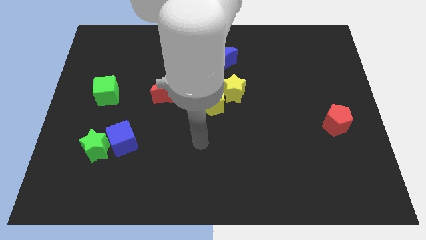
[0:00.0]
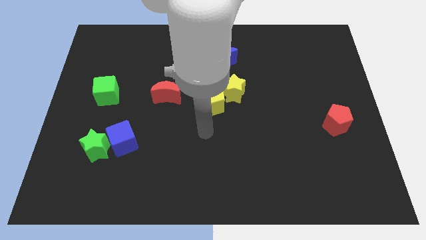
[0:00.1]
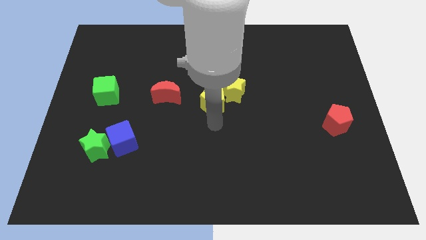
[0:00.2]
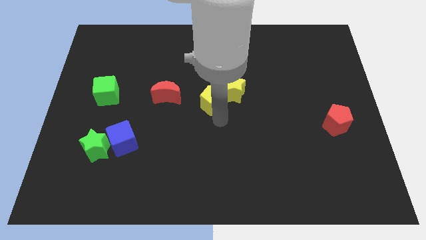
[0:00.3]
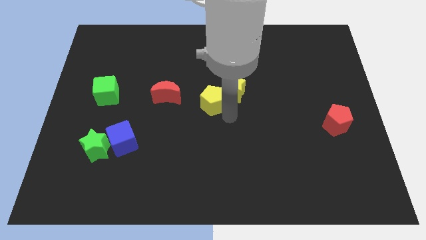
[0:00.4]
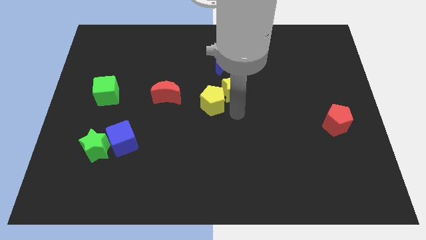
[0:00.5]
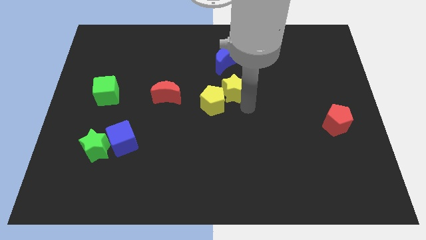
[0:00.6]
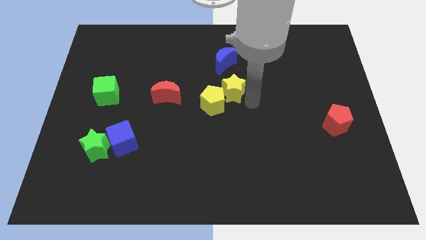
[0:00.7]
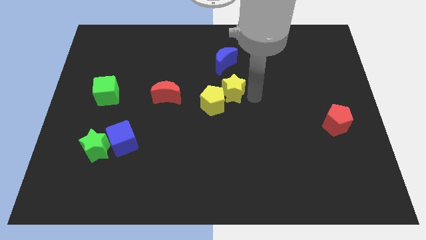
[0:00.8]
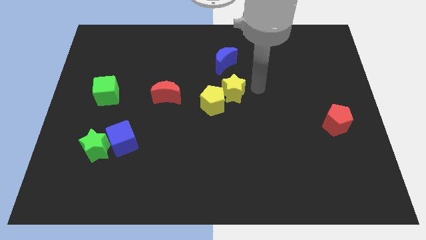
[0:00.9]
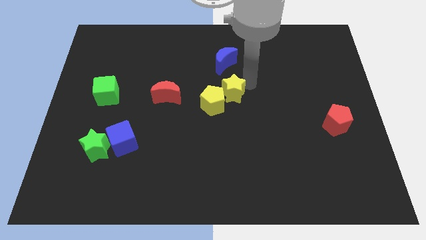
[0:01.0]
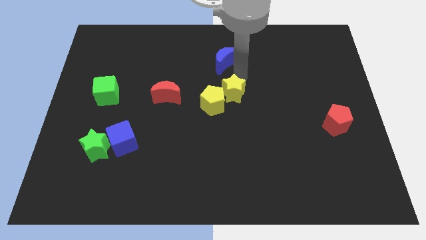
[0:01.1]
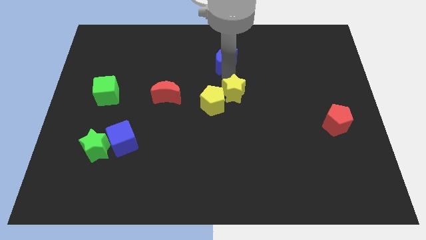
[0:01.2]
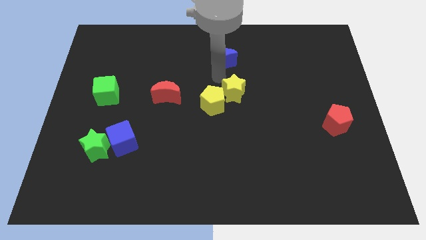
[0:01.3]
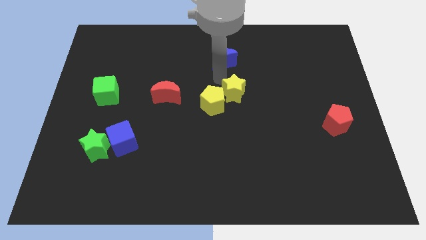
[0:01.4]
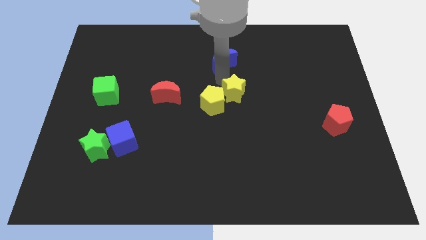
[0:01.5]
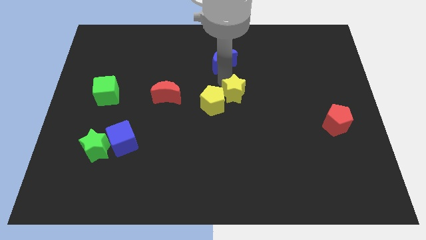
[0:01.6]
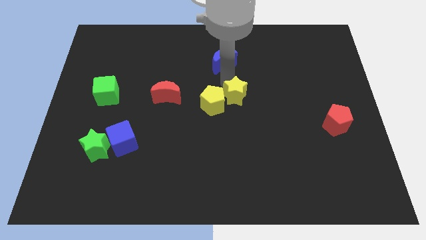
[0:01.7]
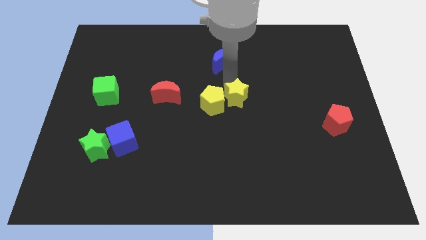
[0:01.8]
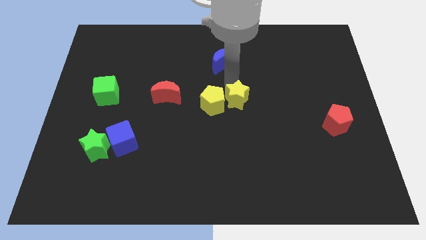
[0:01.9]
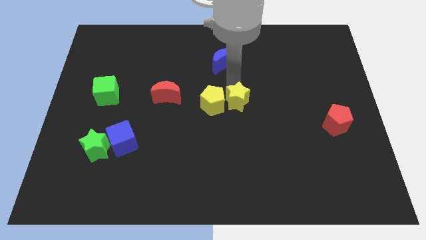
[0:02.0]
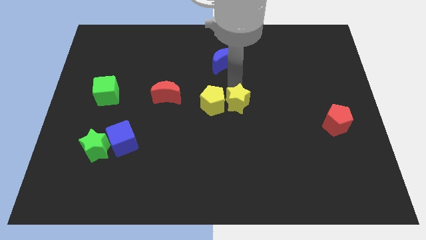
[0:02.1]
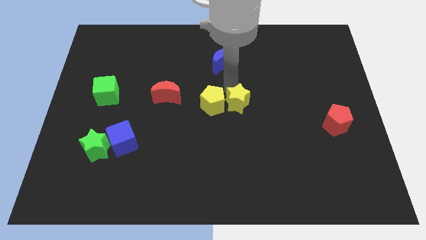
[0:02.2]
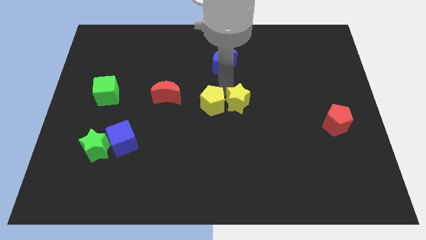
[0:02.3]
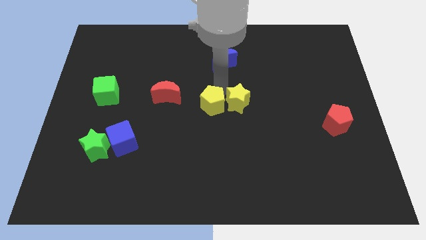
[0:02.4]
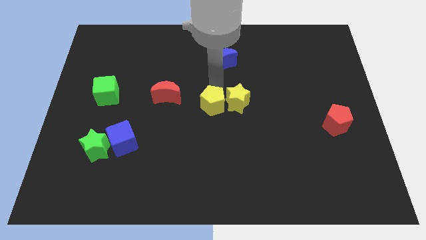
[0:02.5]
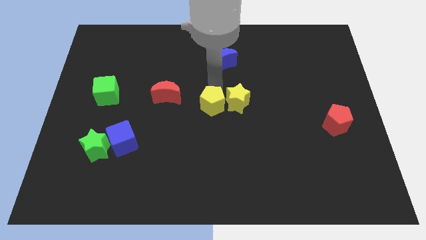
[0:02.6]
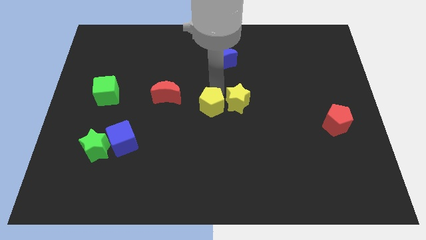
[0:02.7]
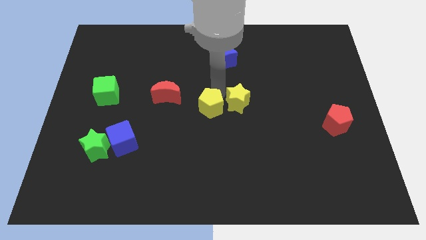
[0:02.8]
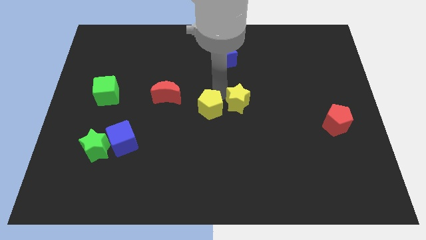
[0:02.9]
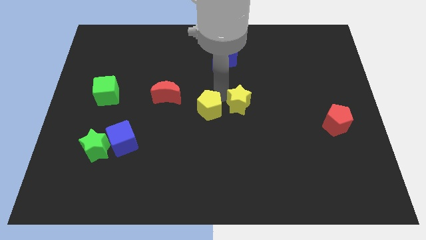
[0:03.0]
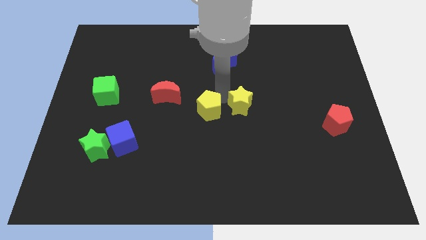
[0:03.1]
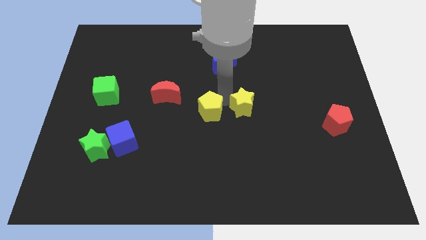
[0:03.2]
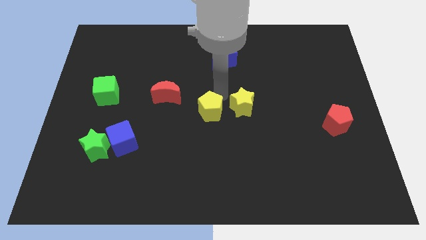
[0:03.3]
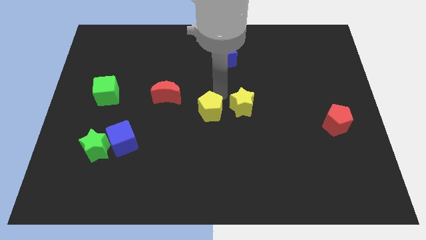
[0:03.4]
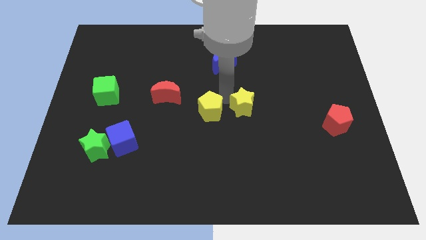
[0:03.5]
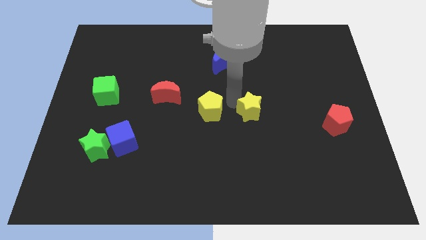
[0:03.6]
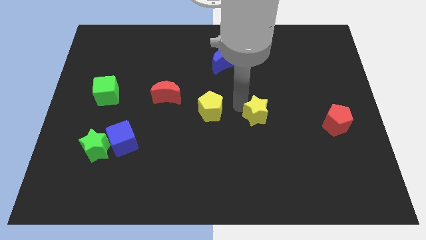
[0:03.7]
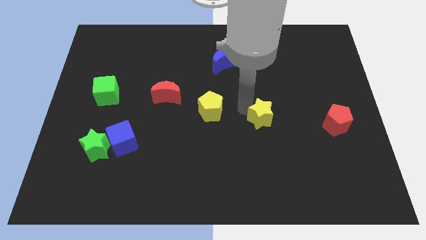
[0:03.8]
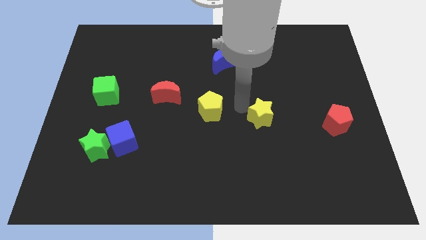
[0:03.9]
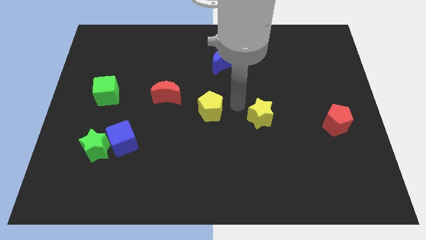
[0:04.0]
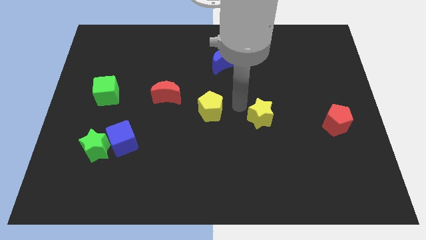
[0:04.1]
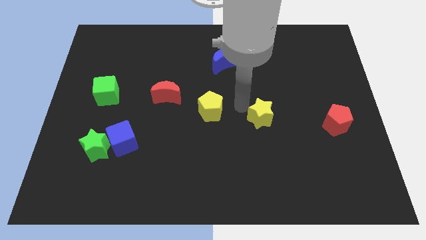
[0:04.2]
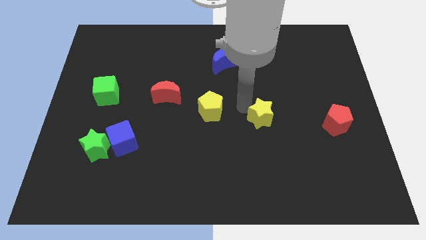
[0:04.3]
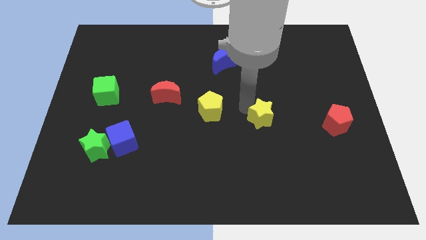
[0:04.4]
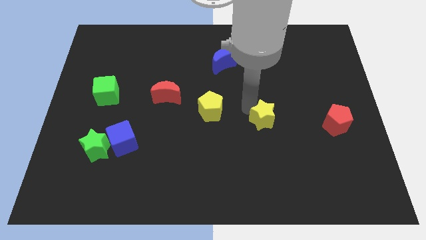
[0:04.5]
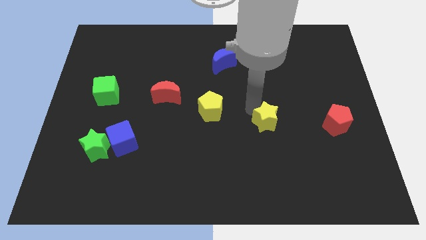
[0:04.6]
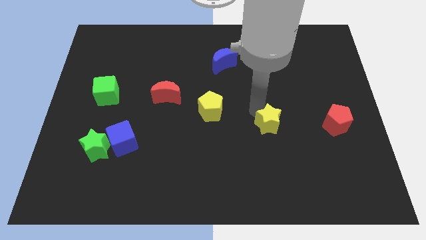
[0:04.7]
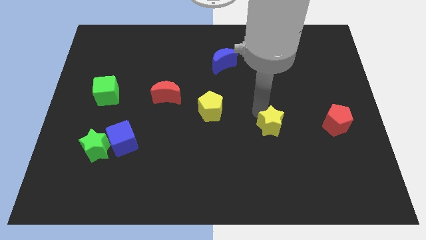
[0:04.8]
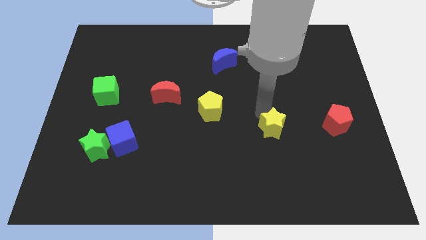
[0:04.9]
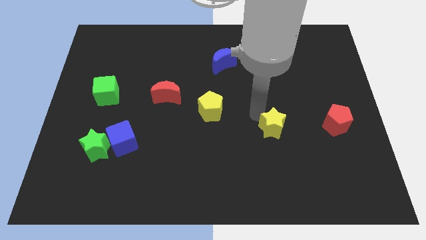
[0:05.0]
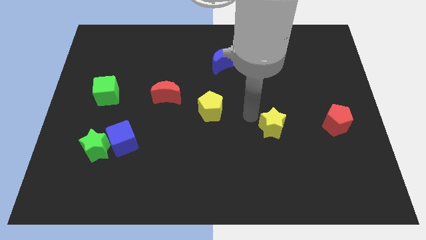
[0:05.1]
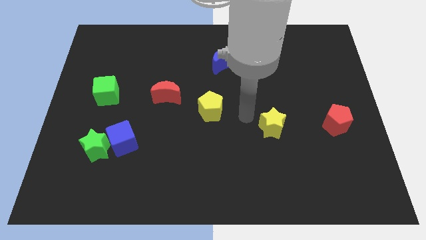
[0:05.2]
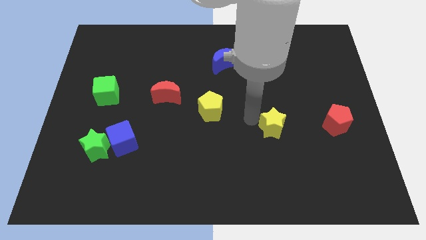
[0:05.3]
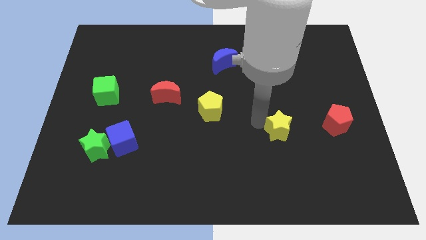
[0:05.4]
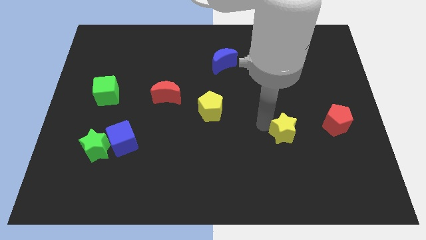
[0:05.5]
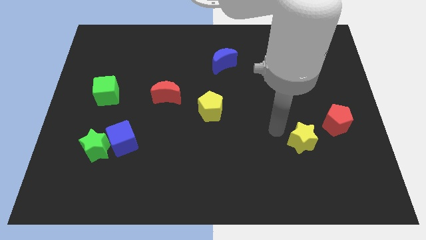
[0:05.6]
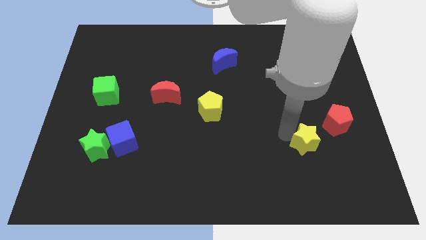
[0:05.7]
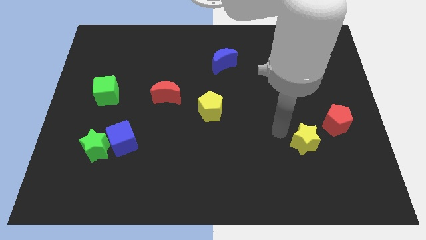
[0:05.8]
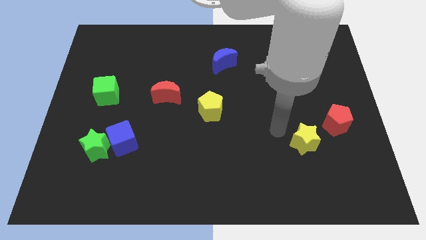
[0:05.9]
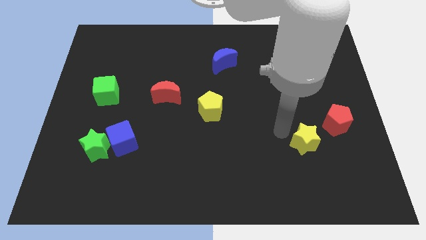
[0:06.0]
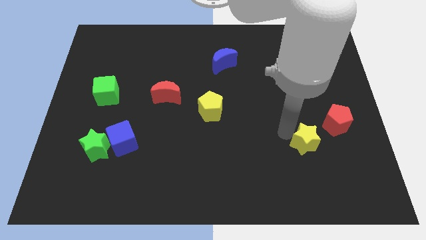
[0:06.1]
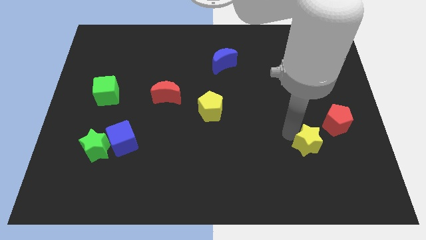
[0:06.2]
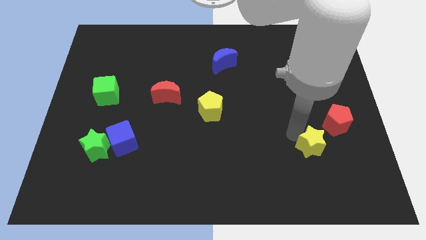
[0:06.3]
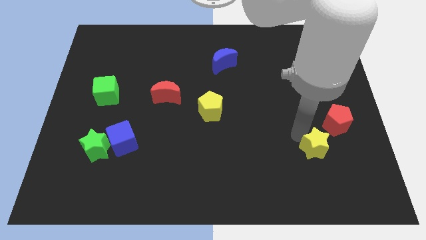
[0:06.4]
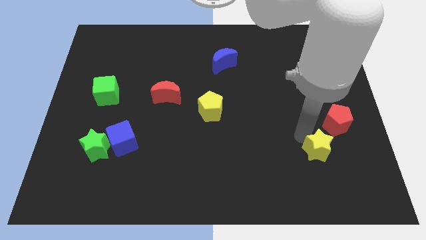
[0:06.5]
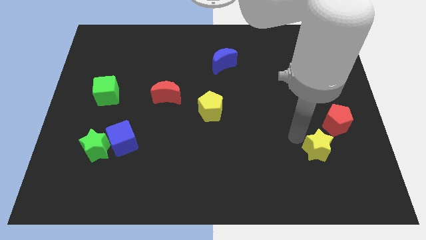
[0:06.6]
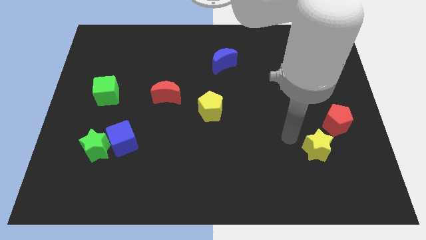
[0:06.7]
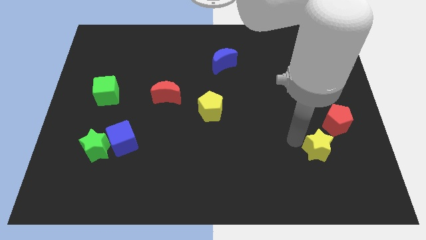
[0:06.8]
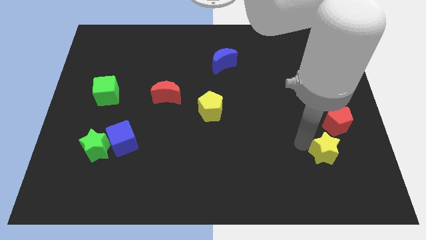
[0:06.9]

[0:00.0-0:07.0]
put the yellow star to the bottom side of the red pentagon
